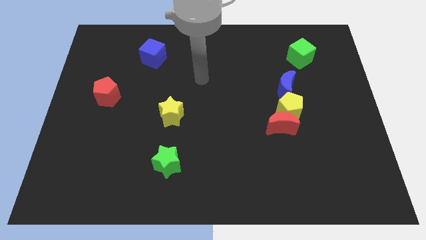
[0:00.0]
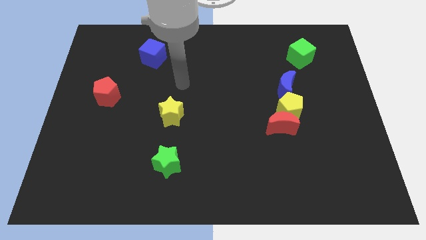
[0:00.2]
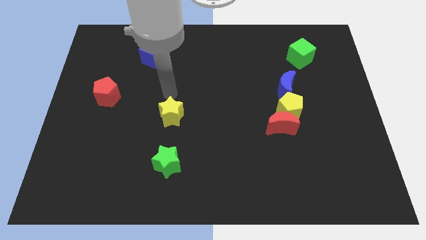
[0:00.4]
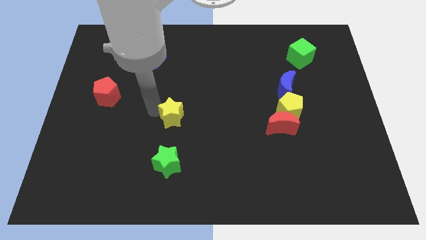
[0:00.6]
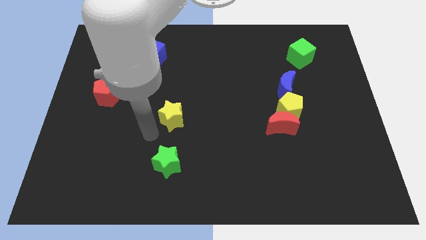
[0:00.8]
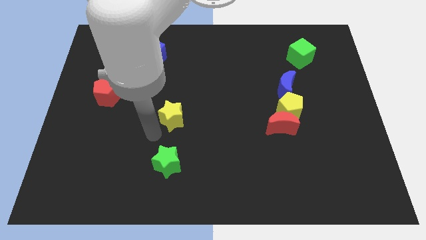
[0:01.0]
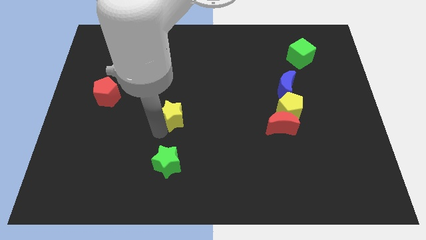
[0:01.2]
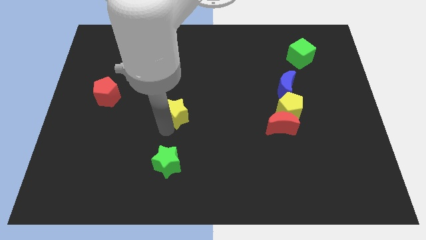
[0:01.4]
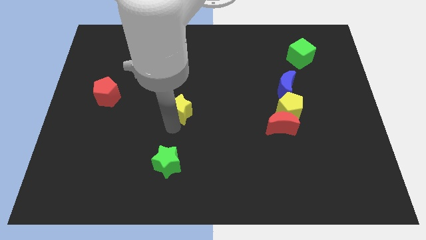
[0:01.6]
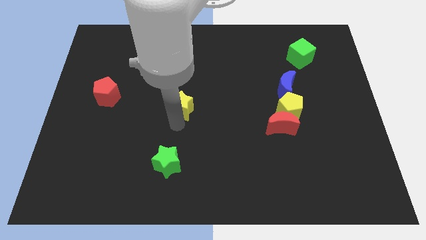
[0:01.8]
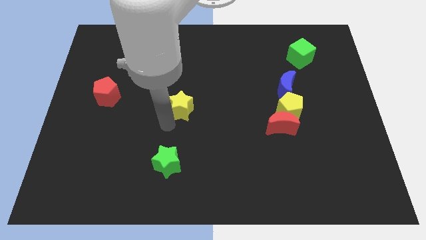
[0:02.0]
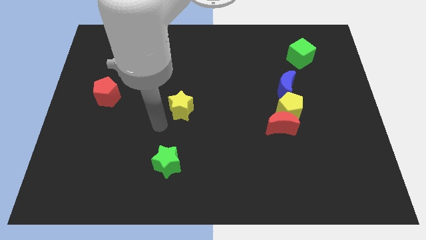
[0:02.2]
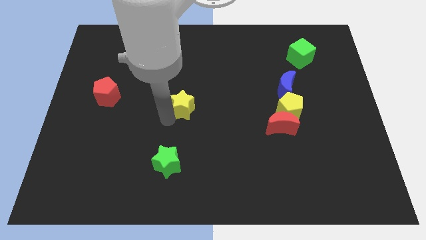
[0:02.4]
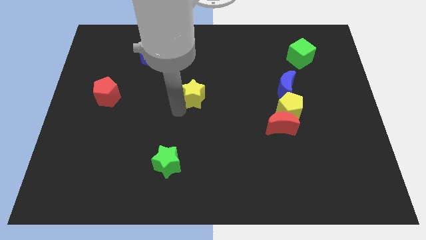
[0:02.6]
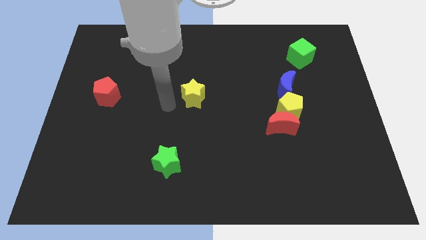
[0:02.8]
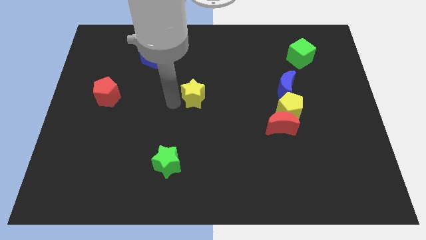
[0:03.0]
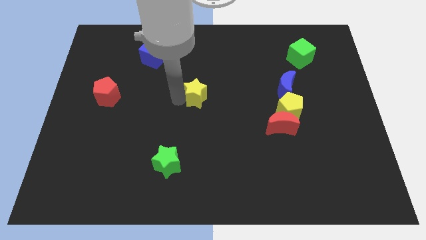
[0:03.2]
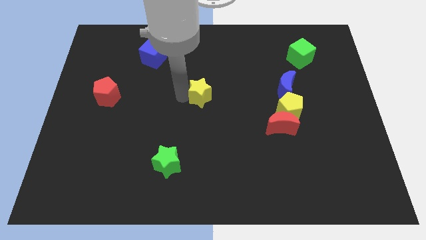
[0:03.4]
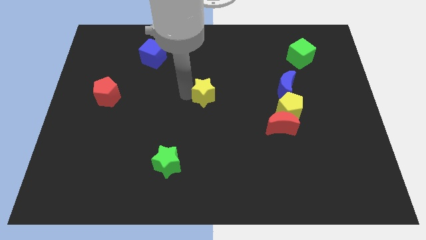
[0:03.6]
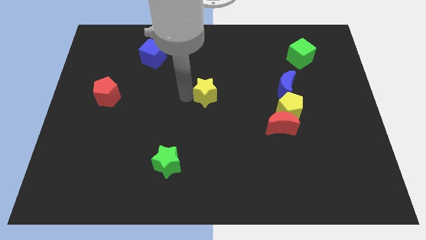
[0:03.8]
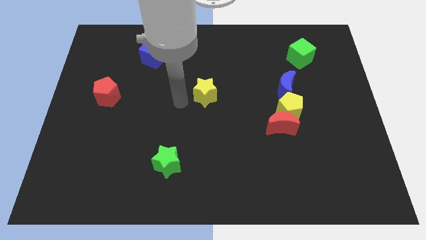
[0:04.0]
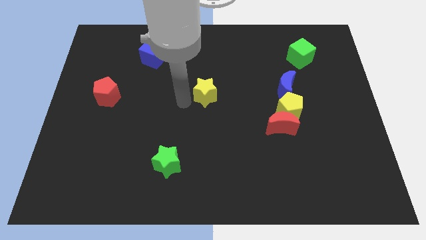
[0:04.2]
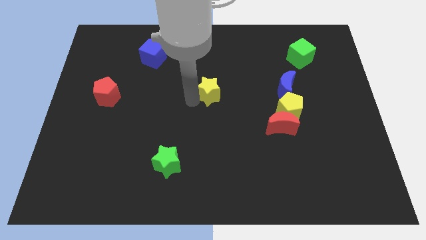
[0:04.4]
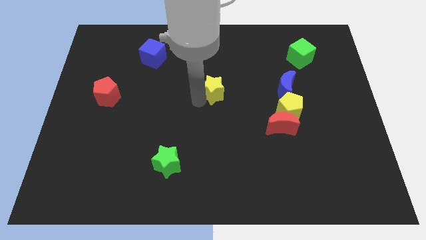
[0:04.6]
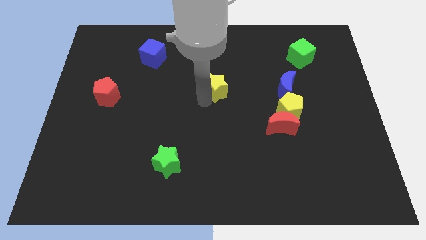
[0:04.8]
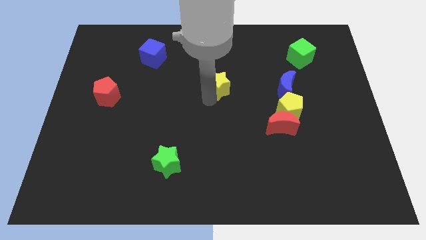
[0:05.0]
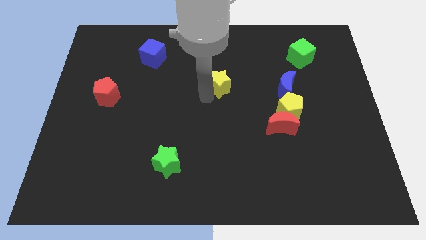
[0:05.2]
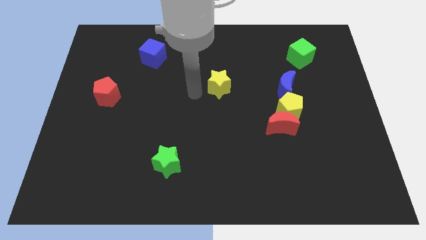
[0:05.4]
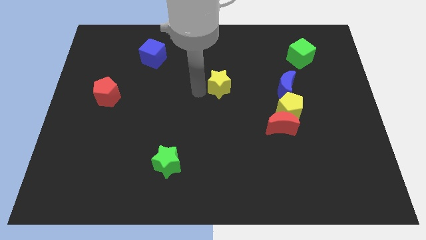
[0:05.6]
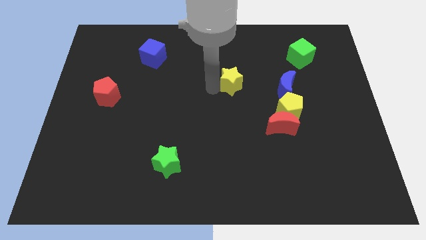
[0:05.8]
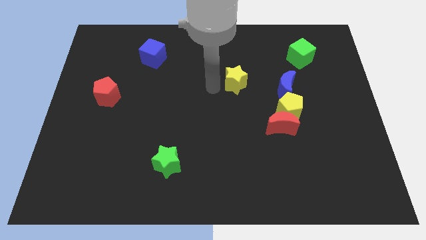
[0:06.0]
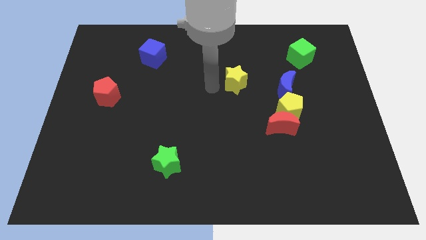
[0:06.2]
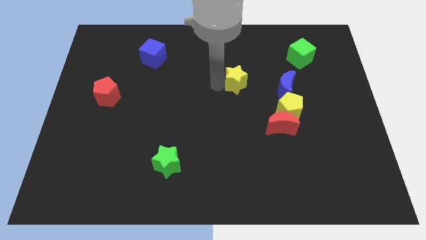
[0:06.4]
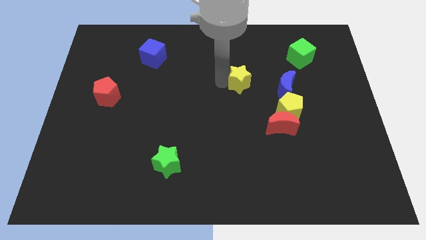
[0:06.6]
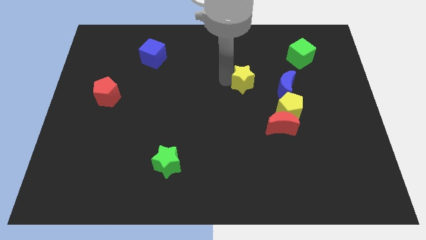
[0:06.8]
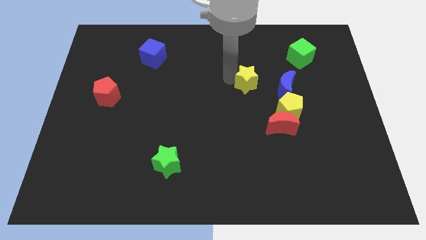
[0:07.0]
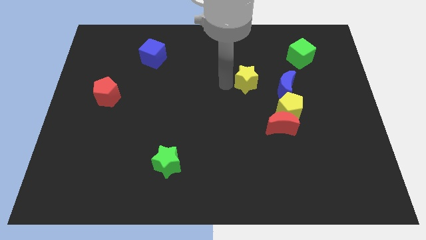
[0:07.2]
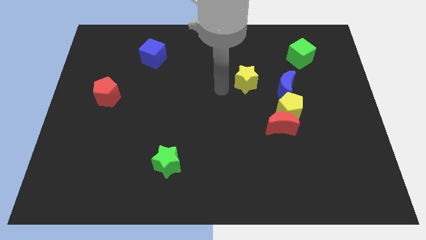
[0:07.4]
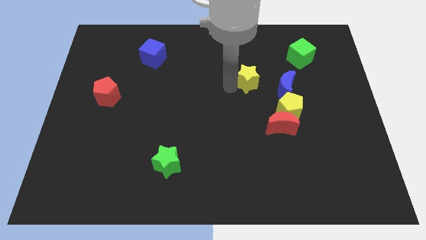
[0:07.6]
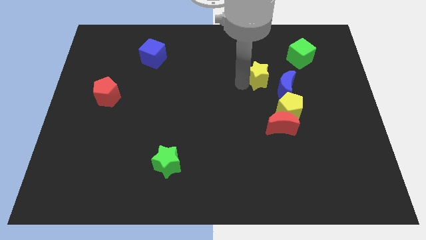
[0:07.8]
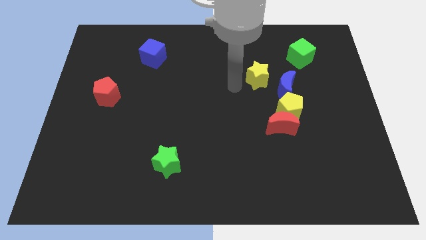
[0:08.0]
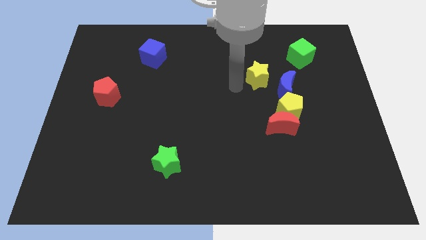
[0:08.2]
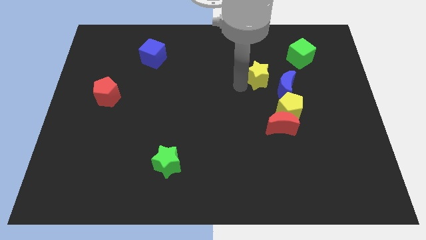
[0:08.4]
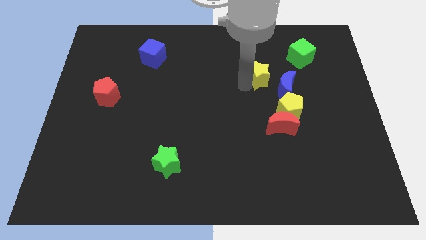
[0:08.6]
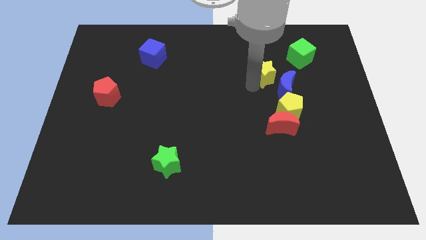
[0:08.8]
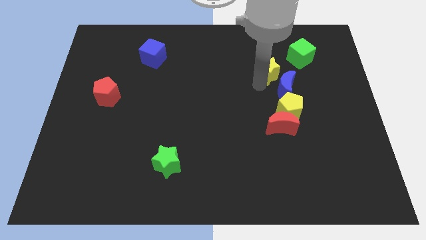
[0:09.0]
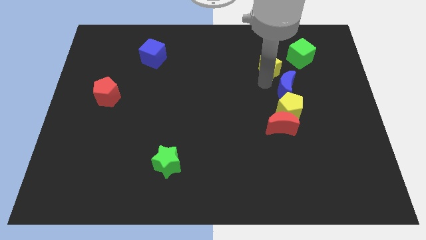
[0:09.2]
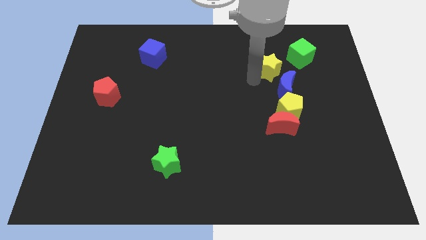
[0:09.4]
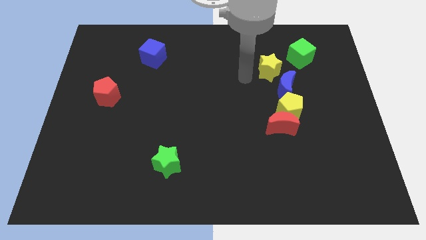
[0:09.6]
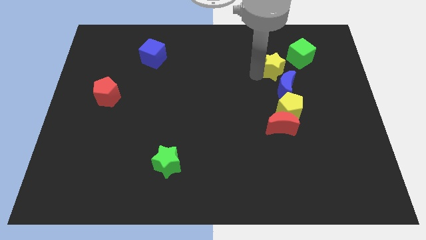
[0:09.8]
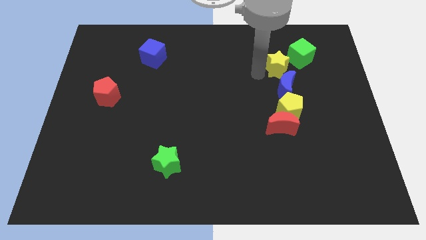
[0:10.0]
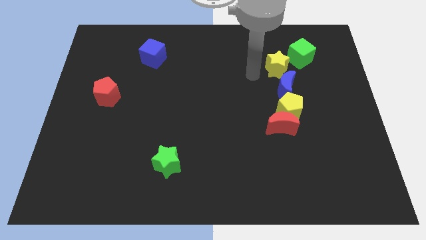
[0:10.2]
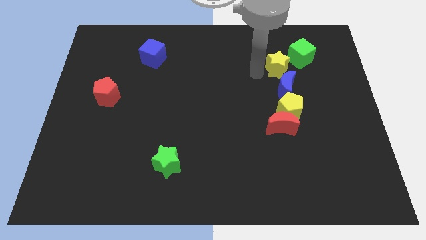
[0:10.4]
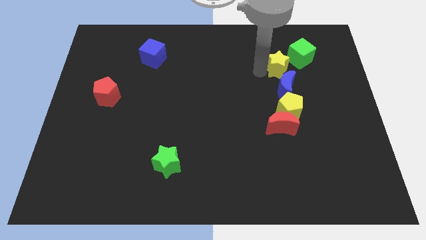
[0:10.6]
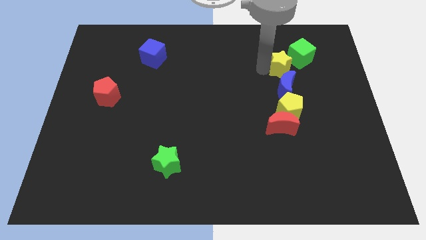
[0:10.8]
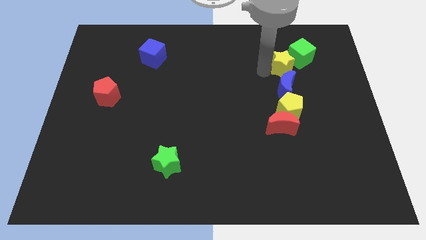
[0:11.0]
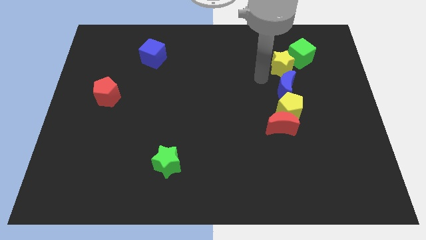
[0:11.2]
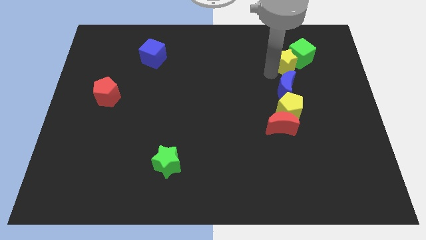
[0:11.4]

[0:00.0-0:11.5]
move the yellow star towards the green cube

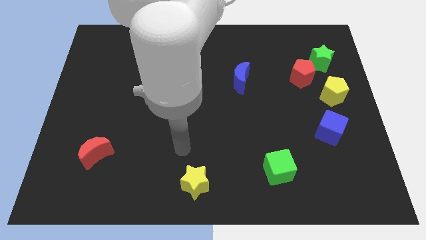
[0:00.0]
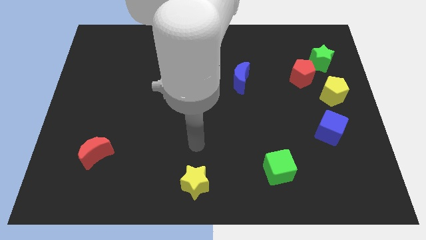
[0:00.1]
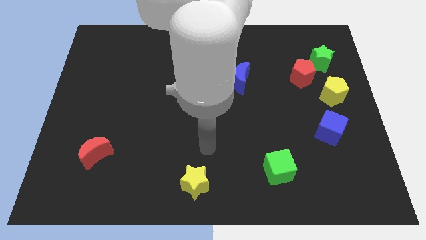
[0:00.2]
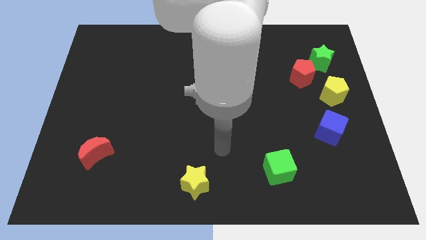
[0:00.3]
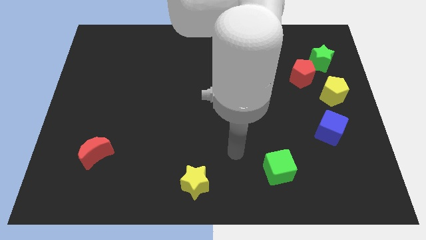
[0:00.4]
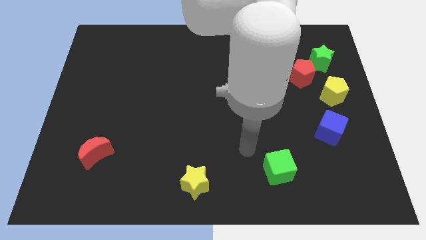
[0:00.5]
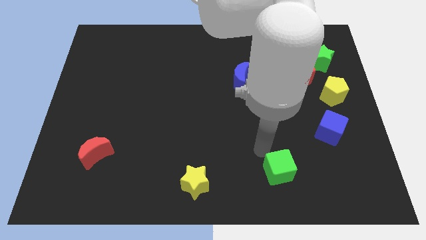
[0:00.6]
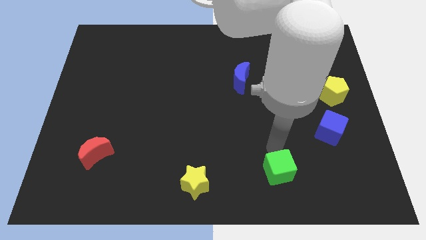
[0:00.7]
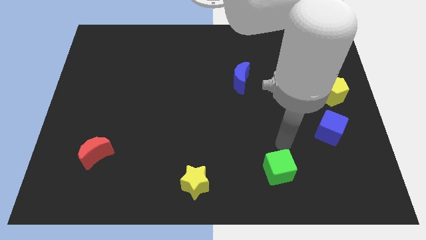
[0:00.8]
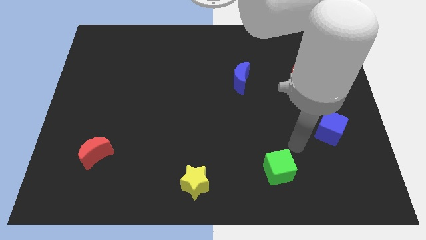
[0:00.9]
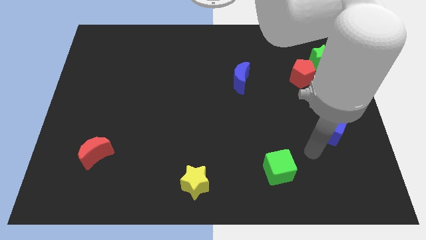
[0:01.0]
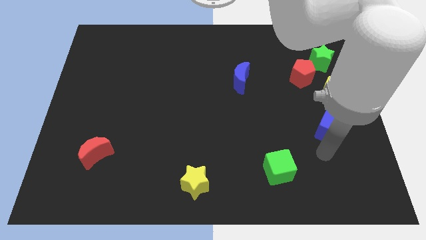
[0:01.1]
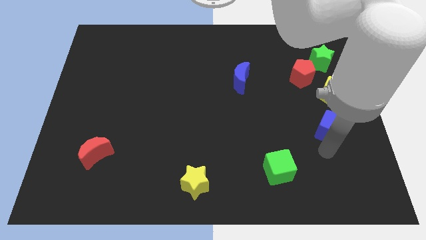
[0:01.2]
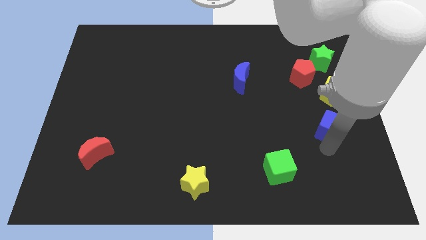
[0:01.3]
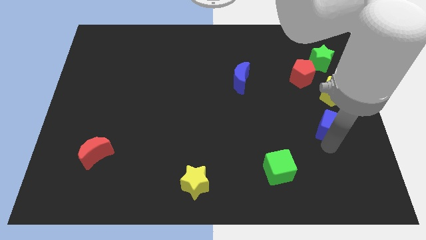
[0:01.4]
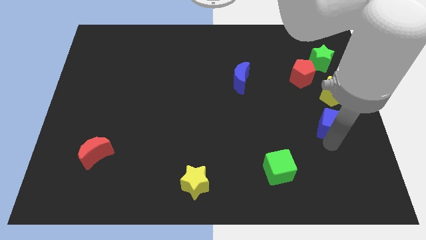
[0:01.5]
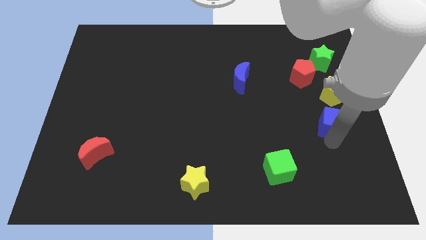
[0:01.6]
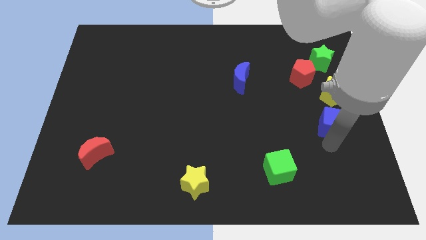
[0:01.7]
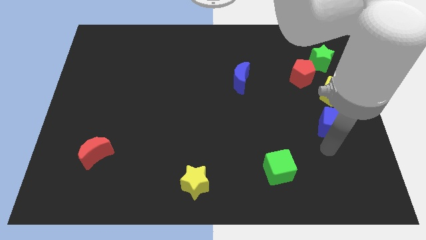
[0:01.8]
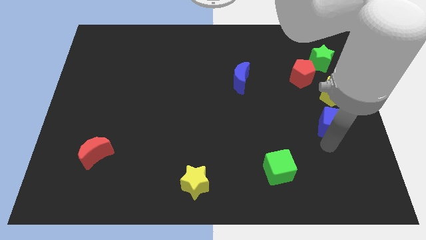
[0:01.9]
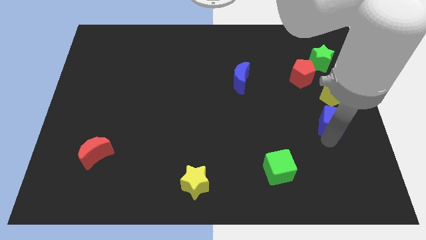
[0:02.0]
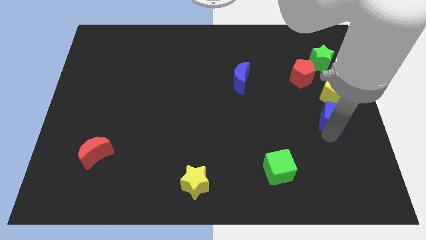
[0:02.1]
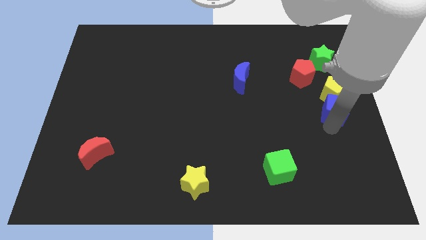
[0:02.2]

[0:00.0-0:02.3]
slide the blue cube to the yellow pentagon
